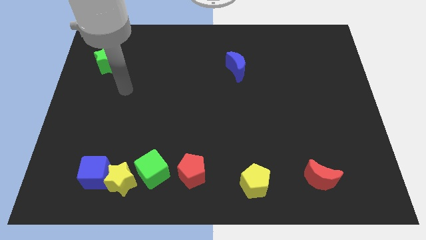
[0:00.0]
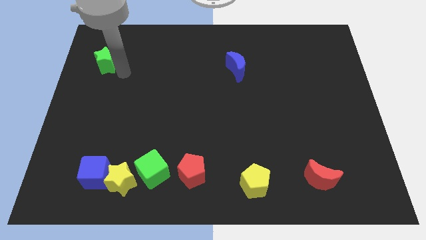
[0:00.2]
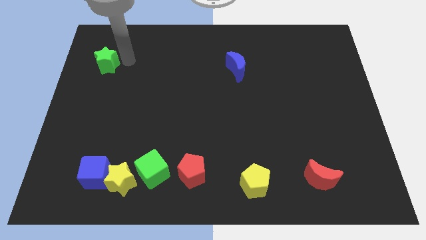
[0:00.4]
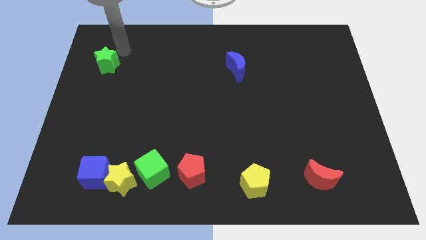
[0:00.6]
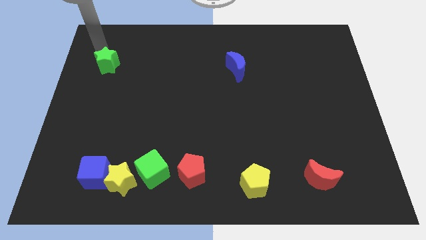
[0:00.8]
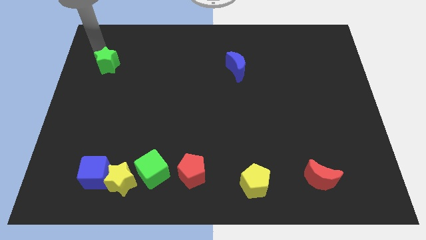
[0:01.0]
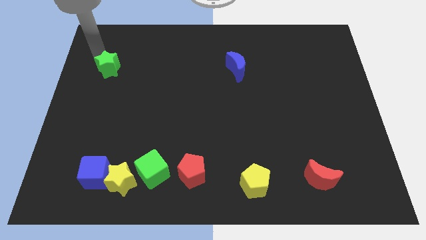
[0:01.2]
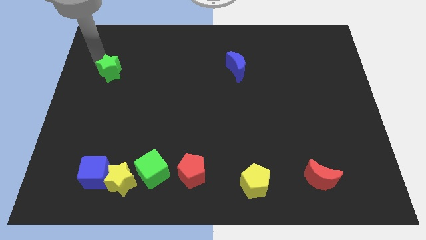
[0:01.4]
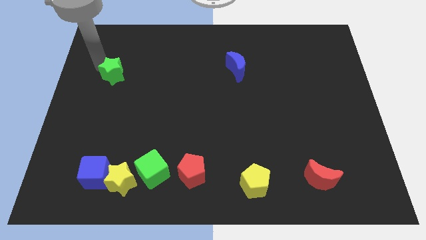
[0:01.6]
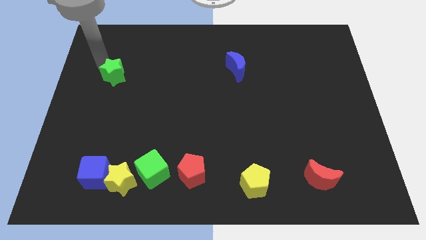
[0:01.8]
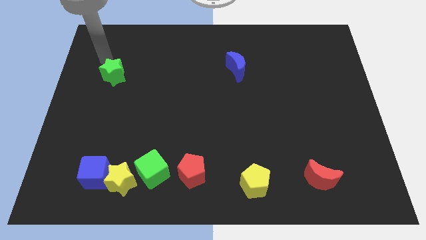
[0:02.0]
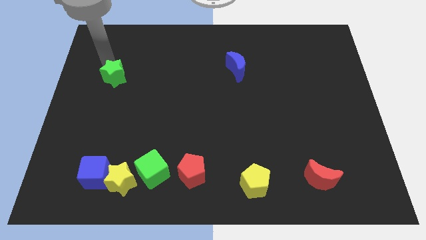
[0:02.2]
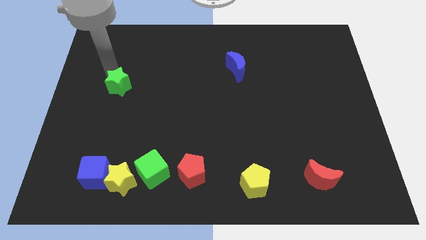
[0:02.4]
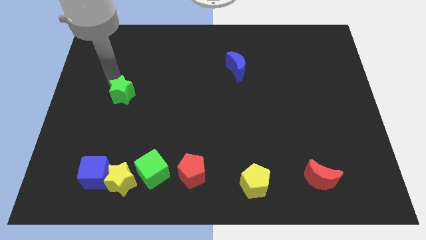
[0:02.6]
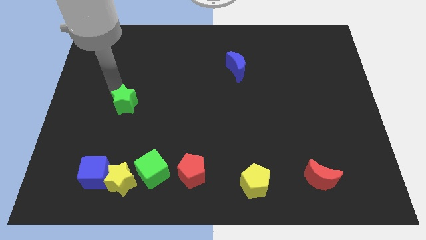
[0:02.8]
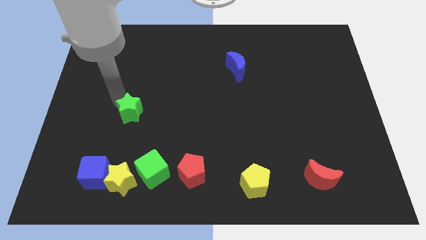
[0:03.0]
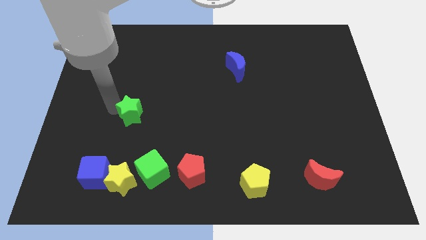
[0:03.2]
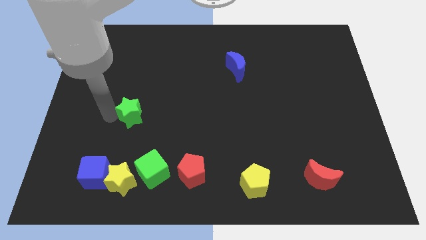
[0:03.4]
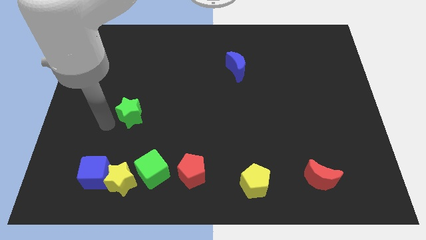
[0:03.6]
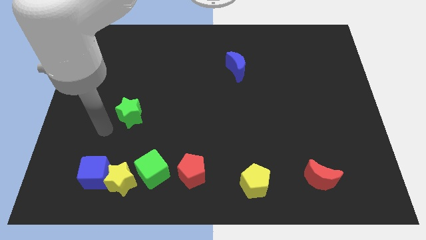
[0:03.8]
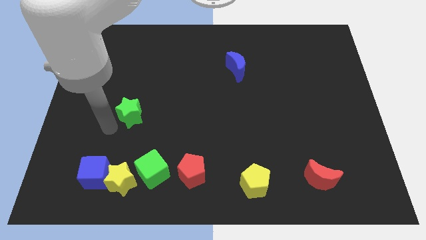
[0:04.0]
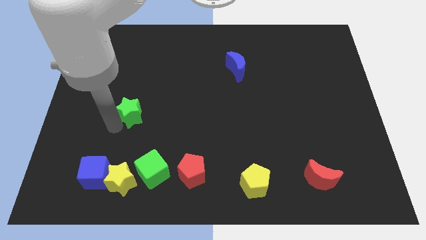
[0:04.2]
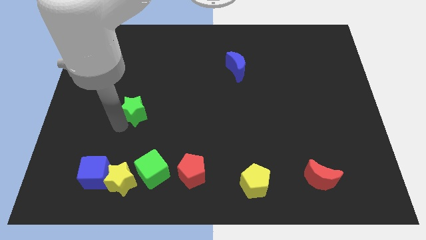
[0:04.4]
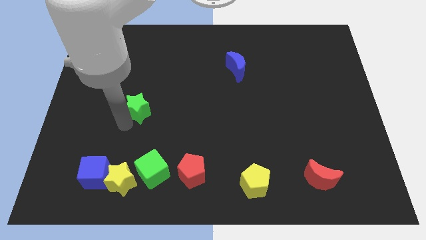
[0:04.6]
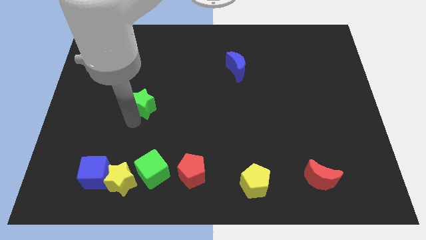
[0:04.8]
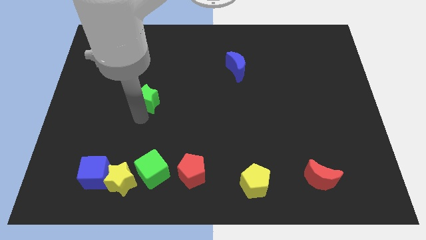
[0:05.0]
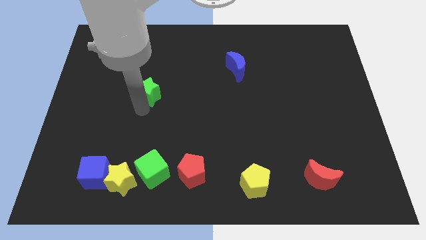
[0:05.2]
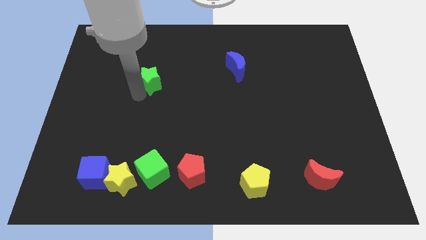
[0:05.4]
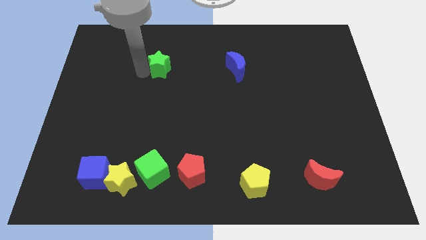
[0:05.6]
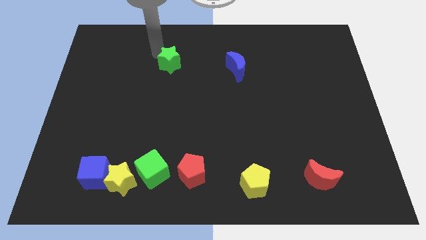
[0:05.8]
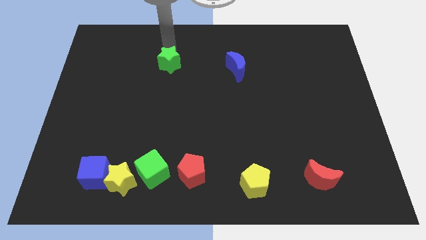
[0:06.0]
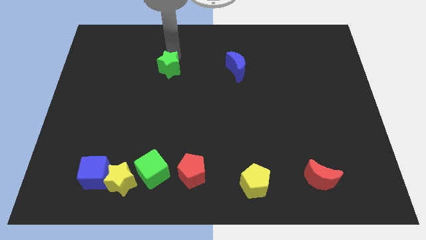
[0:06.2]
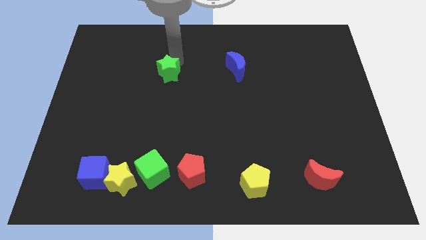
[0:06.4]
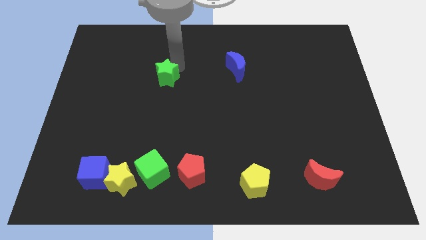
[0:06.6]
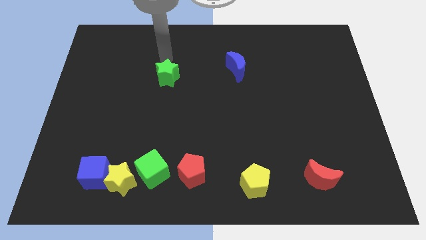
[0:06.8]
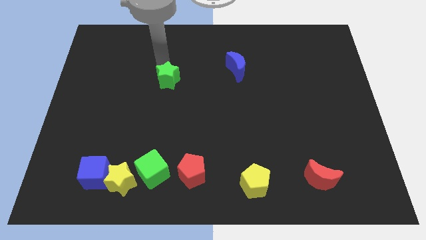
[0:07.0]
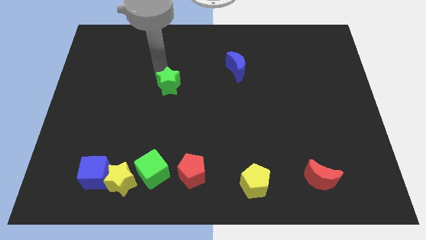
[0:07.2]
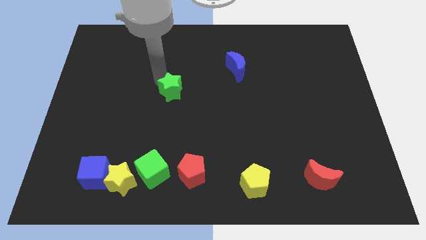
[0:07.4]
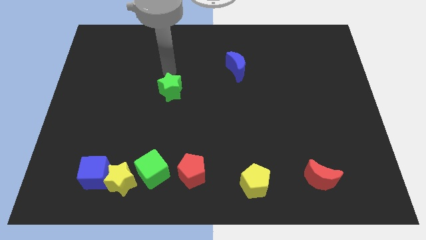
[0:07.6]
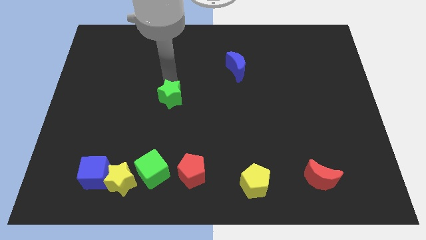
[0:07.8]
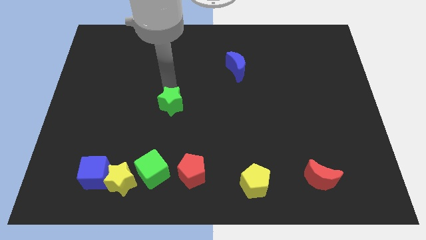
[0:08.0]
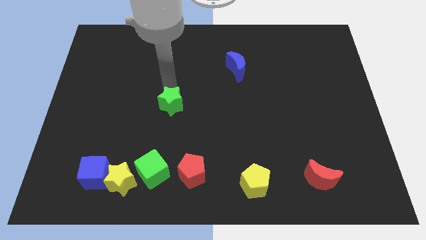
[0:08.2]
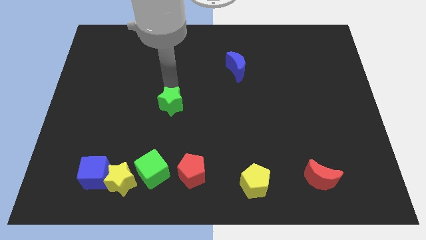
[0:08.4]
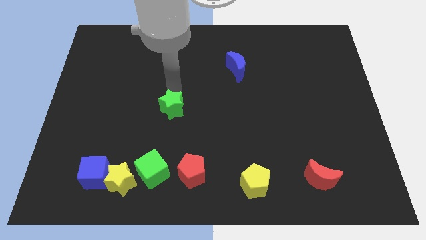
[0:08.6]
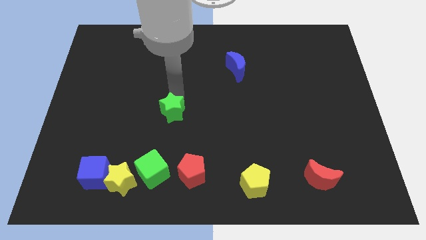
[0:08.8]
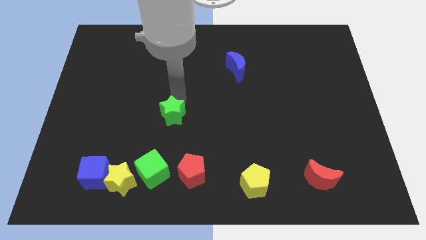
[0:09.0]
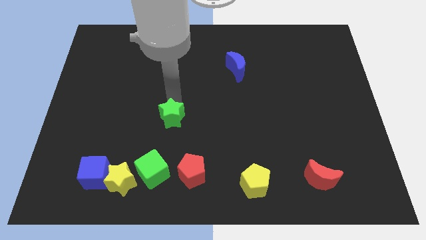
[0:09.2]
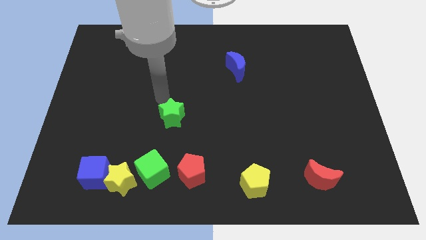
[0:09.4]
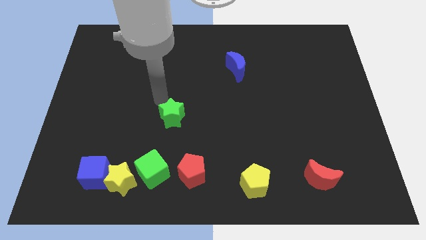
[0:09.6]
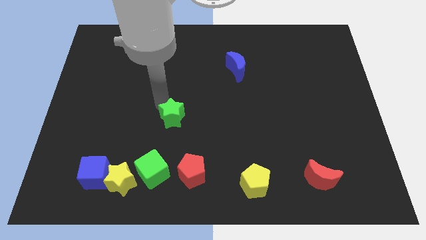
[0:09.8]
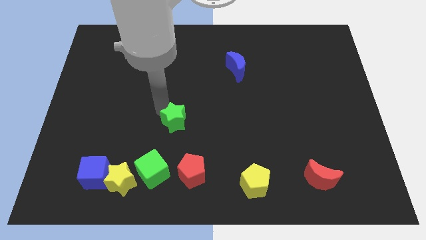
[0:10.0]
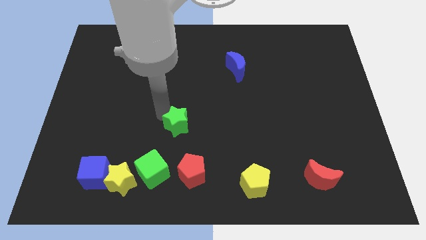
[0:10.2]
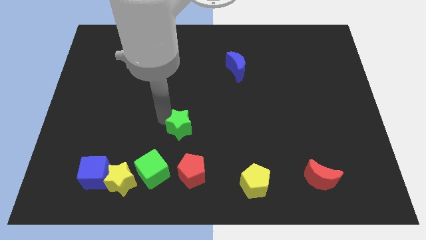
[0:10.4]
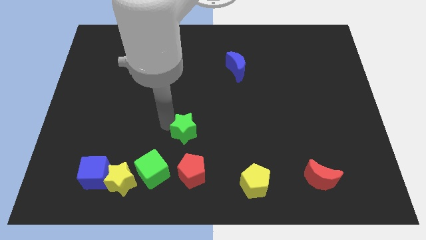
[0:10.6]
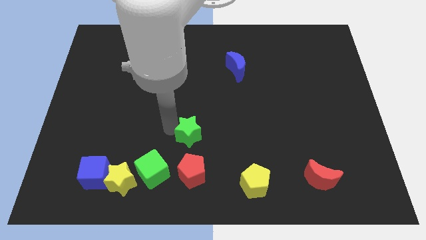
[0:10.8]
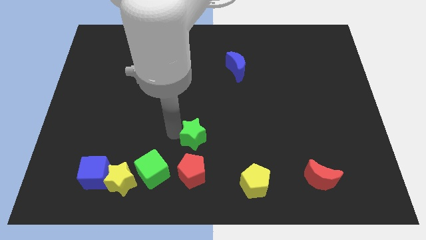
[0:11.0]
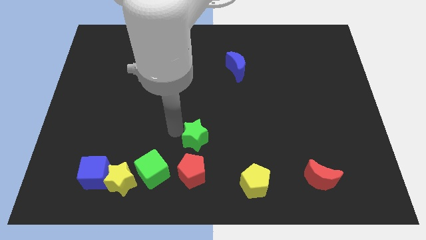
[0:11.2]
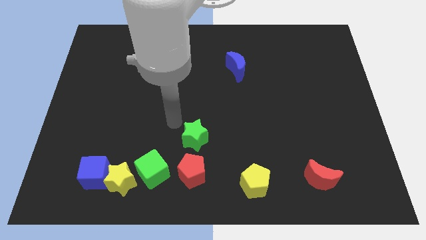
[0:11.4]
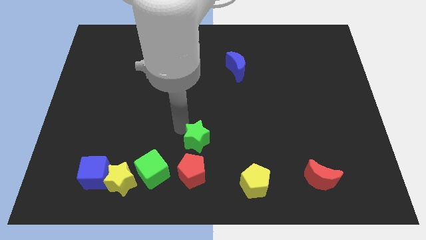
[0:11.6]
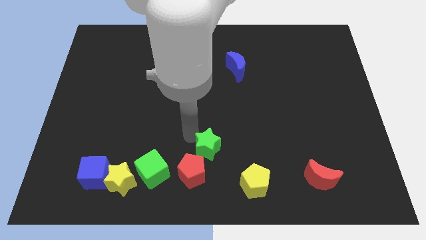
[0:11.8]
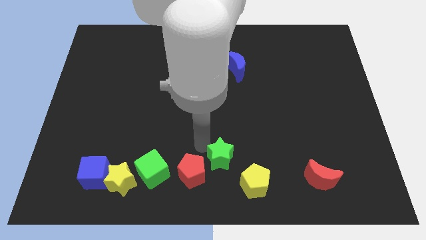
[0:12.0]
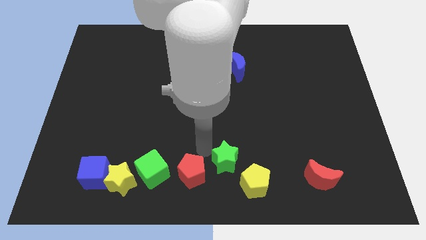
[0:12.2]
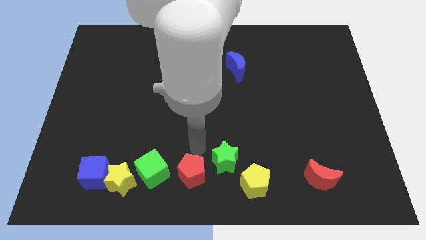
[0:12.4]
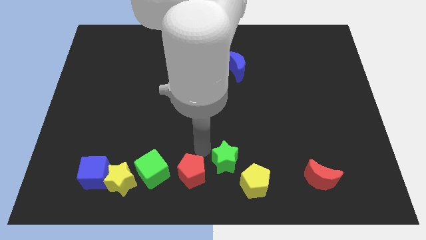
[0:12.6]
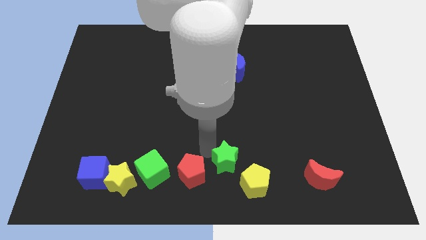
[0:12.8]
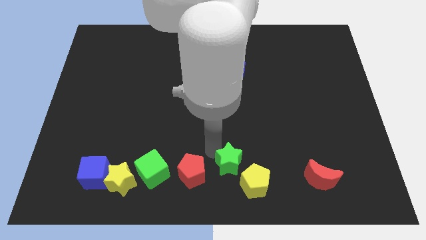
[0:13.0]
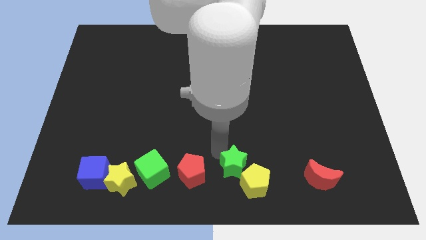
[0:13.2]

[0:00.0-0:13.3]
move the green star towards the yellow pentagon

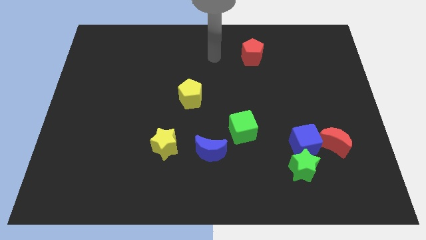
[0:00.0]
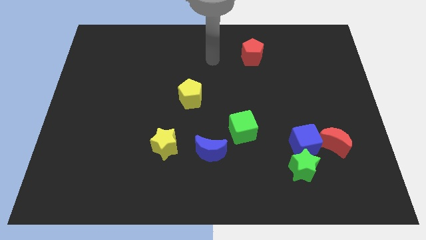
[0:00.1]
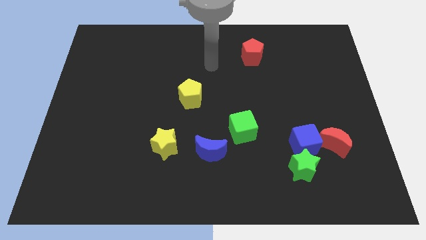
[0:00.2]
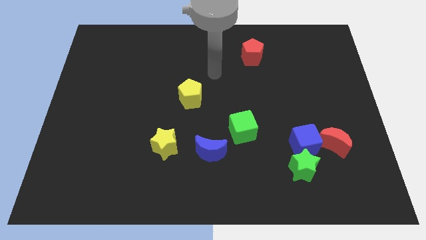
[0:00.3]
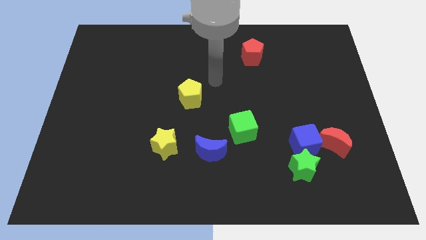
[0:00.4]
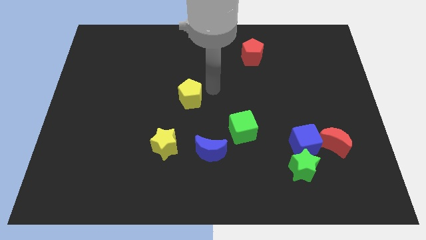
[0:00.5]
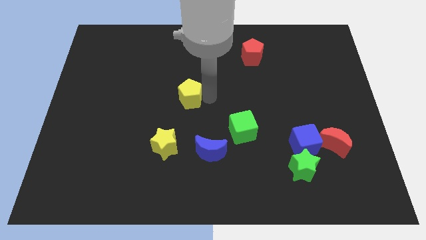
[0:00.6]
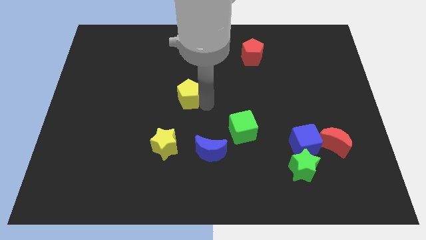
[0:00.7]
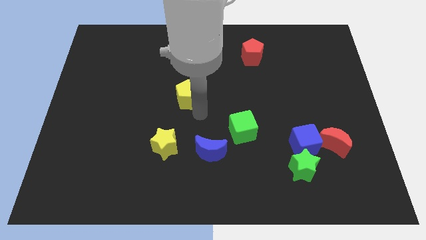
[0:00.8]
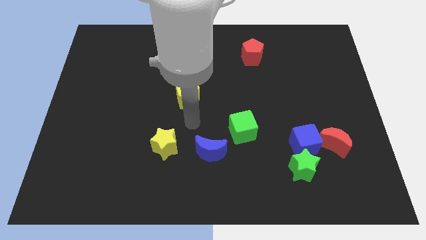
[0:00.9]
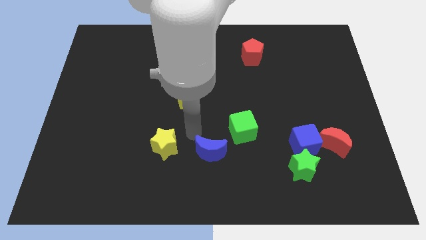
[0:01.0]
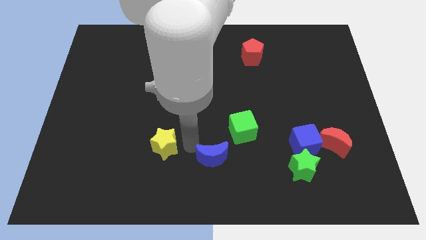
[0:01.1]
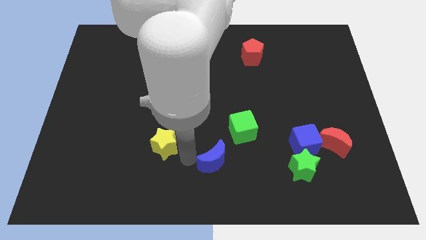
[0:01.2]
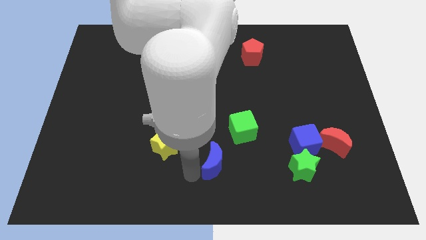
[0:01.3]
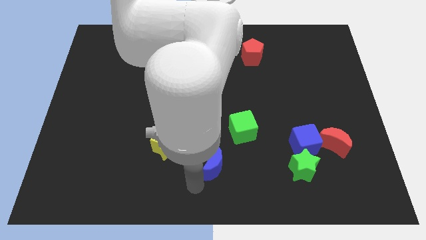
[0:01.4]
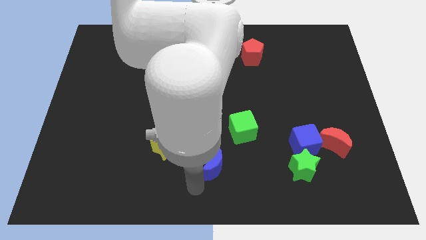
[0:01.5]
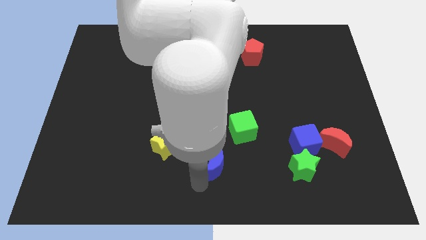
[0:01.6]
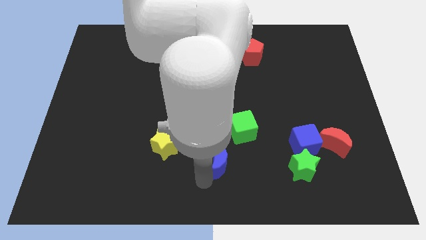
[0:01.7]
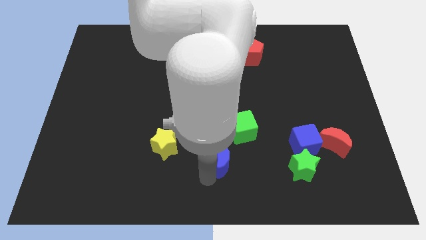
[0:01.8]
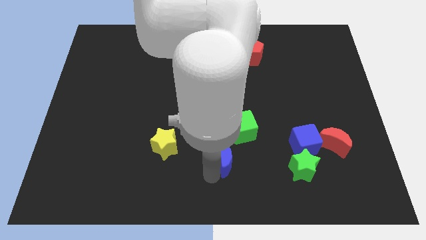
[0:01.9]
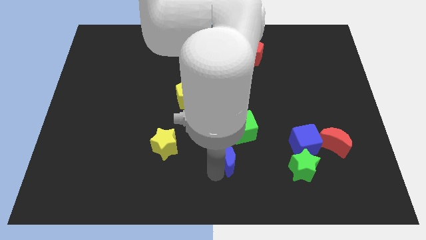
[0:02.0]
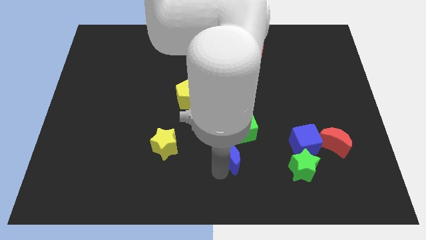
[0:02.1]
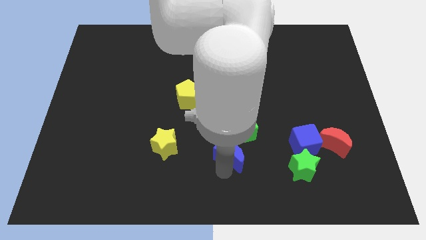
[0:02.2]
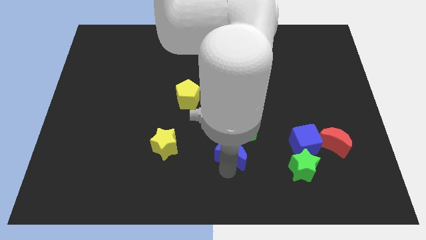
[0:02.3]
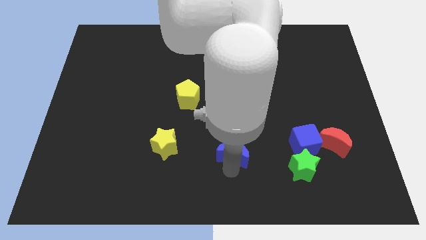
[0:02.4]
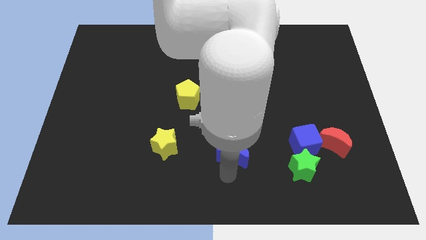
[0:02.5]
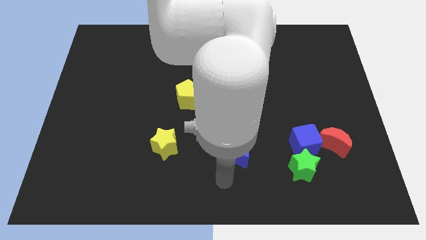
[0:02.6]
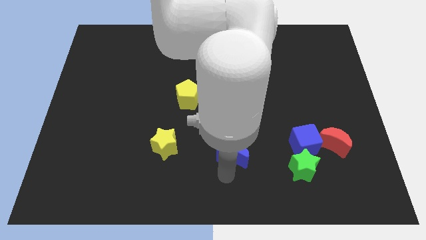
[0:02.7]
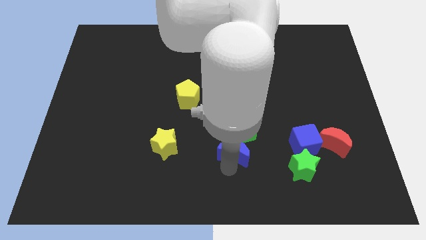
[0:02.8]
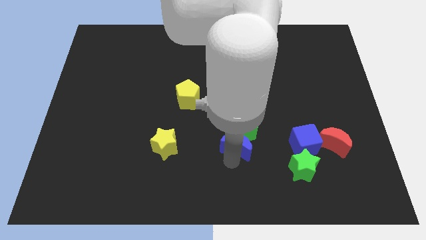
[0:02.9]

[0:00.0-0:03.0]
slide the blue moon to the green cube
